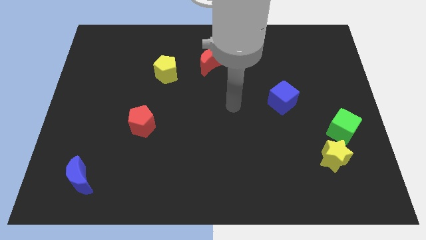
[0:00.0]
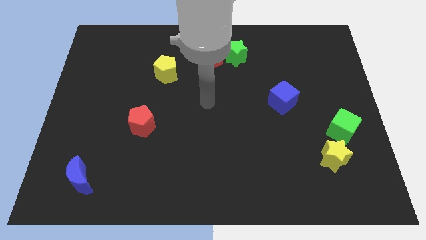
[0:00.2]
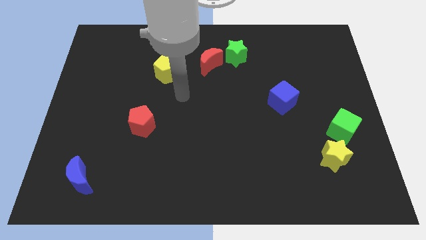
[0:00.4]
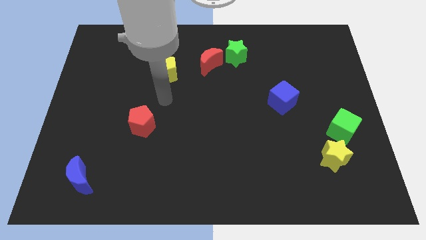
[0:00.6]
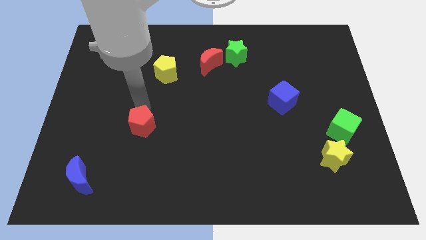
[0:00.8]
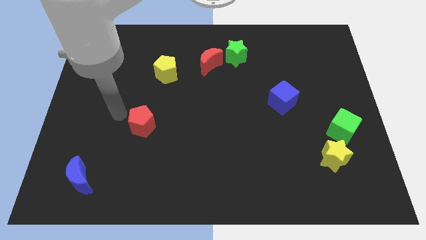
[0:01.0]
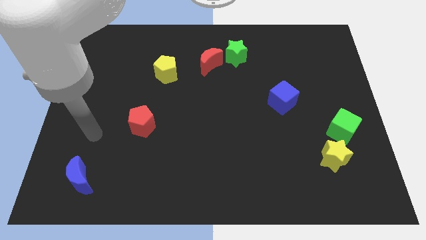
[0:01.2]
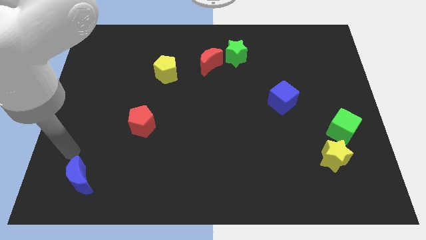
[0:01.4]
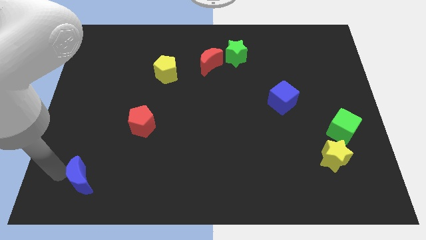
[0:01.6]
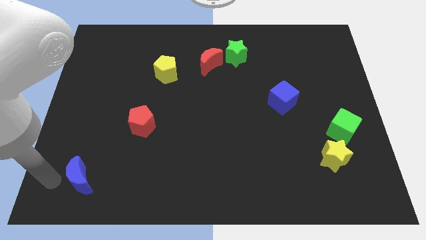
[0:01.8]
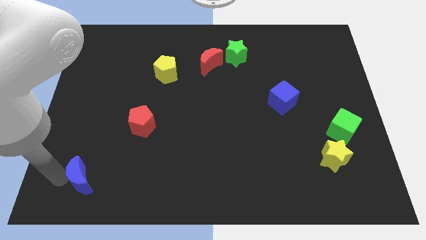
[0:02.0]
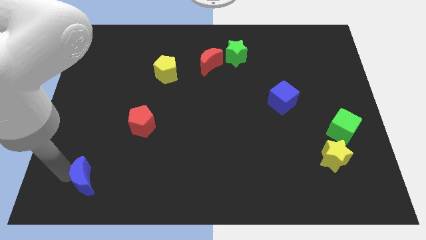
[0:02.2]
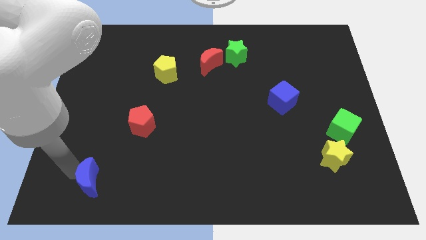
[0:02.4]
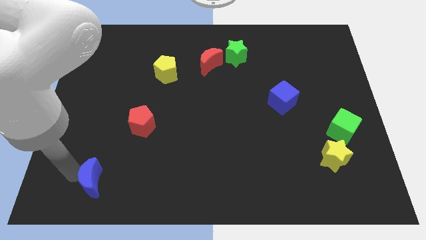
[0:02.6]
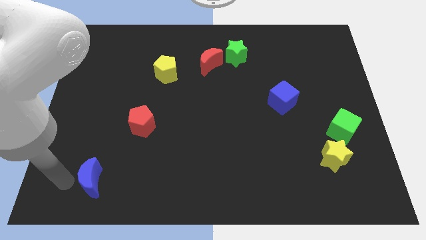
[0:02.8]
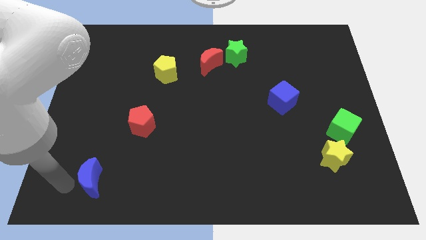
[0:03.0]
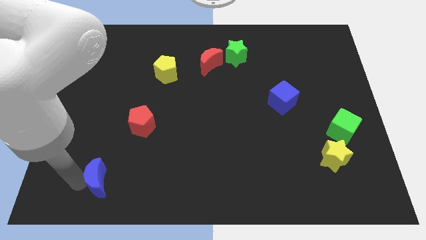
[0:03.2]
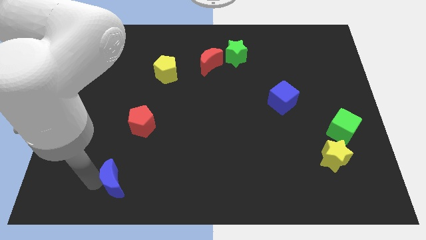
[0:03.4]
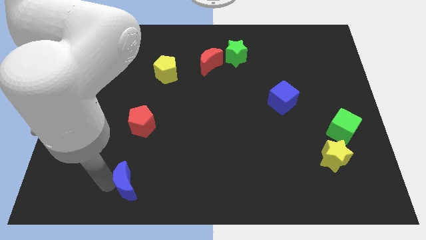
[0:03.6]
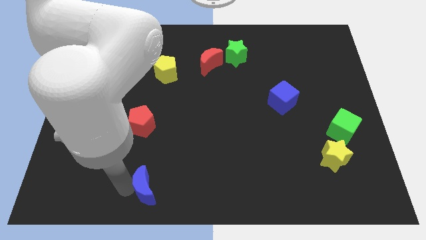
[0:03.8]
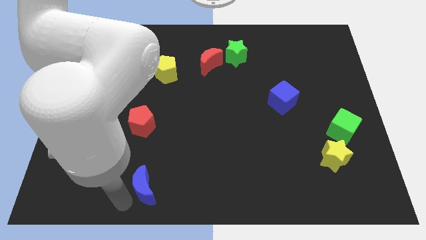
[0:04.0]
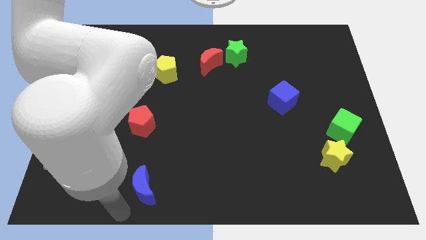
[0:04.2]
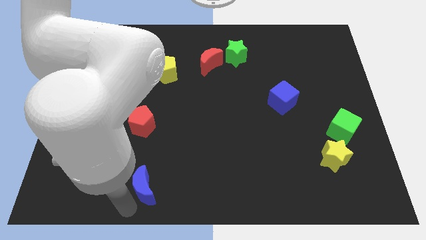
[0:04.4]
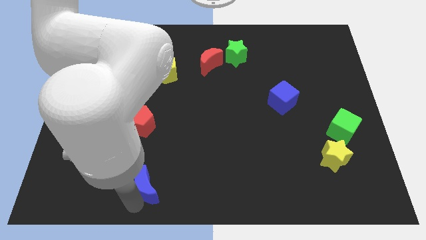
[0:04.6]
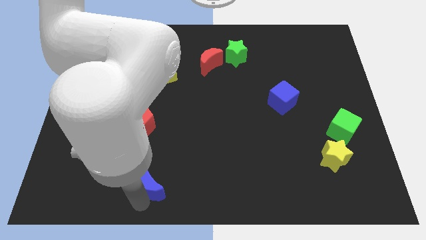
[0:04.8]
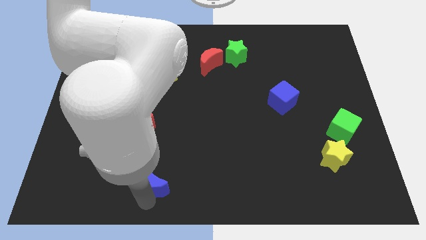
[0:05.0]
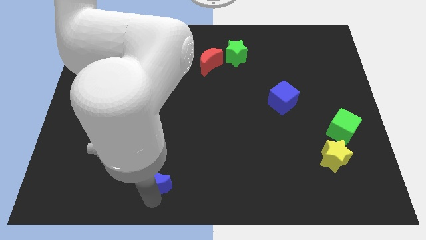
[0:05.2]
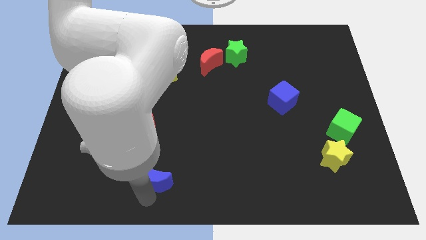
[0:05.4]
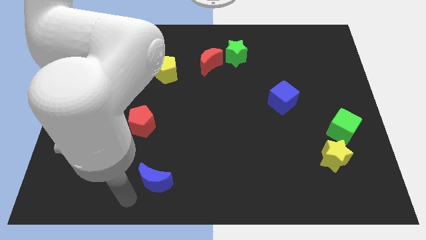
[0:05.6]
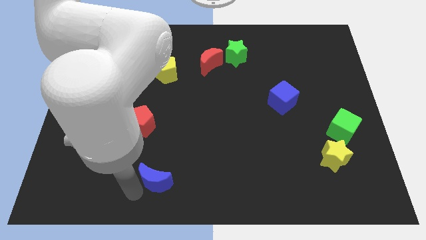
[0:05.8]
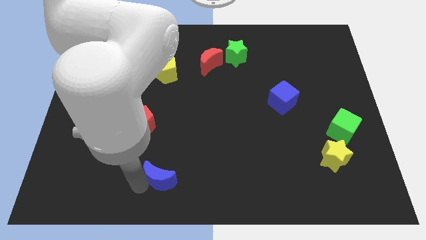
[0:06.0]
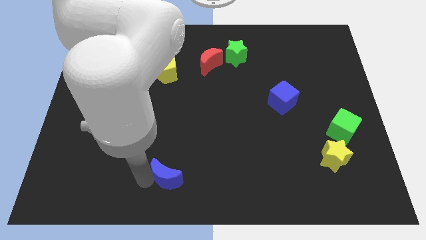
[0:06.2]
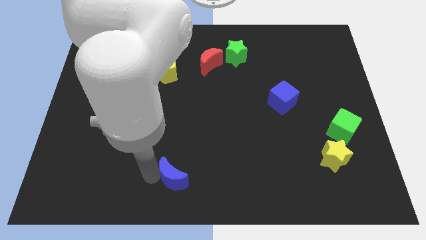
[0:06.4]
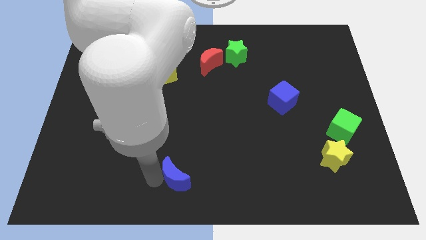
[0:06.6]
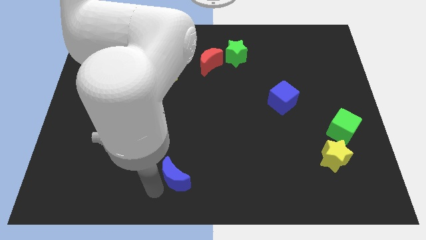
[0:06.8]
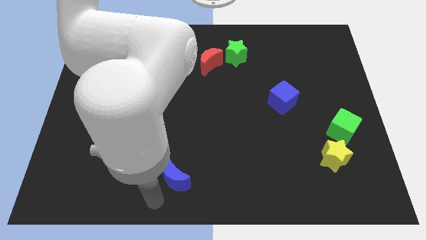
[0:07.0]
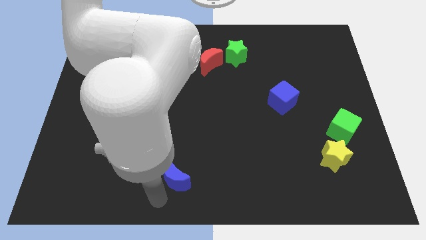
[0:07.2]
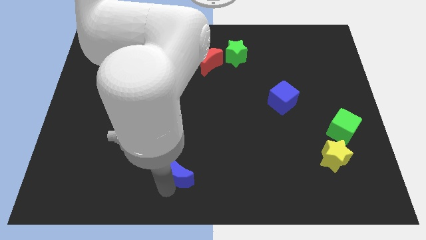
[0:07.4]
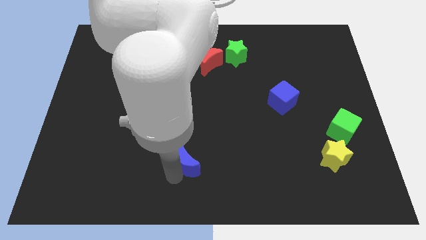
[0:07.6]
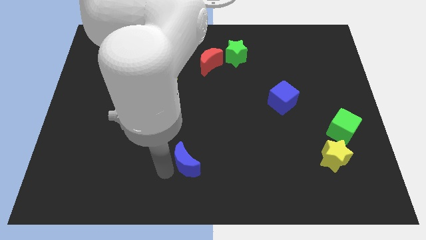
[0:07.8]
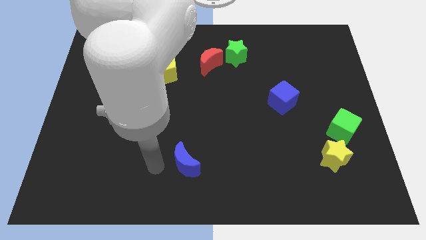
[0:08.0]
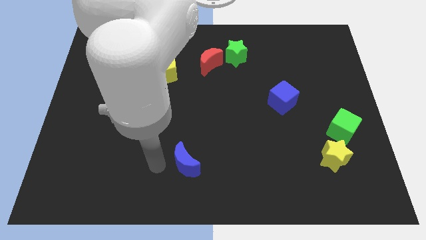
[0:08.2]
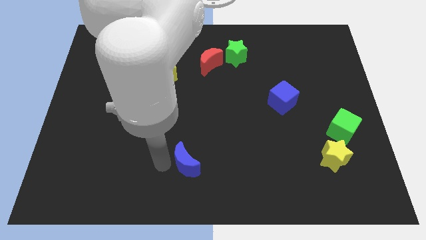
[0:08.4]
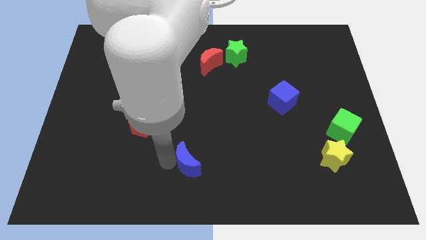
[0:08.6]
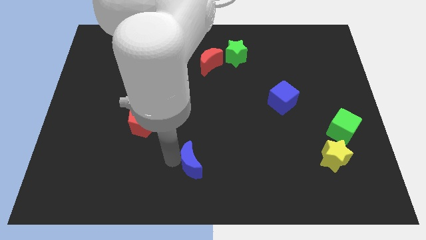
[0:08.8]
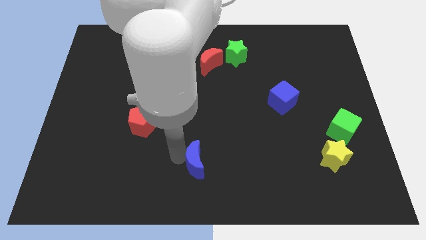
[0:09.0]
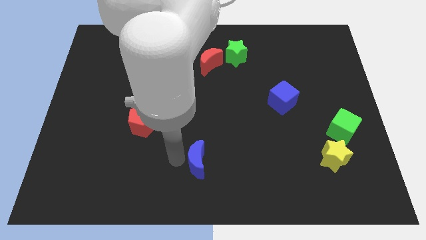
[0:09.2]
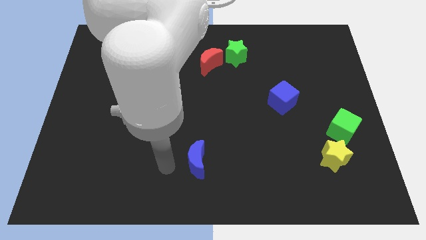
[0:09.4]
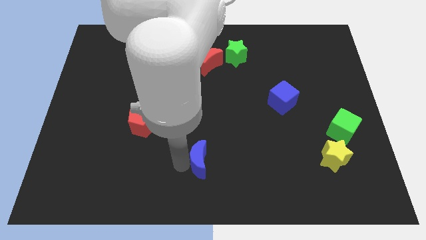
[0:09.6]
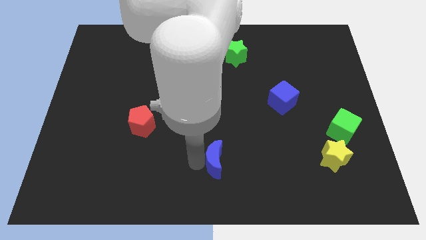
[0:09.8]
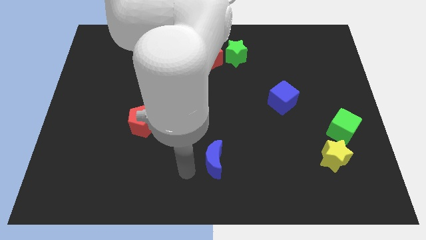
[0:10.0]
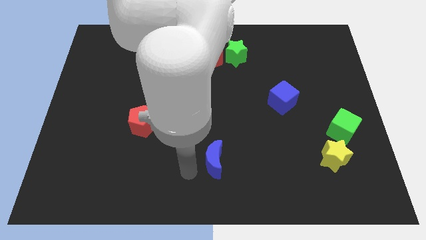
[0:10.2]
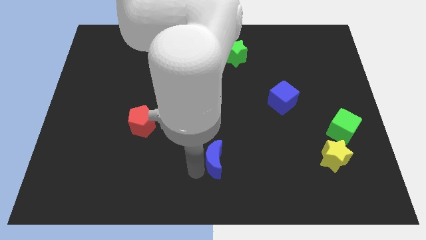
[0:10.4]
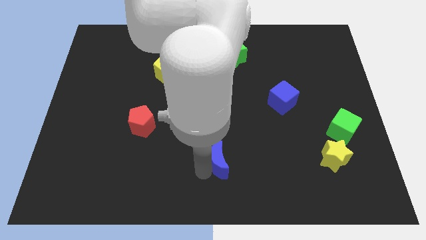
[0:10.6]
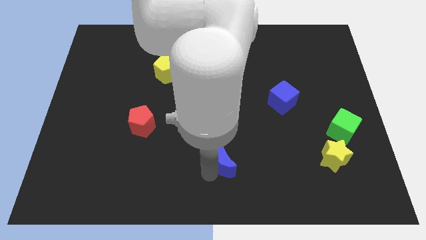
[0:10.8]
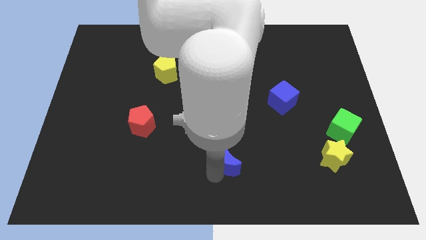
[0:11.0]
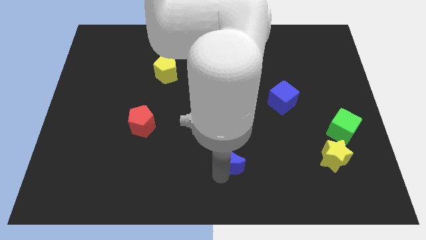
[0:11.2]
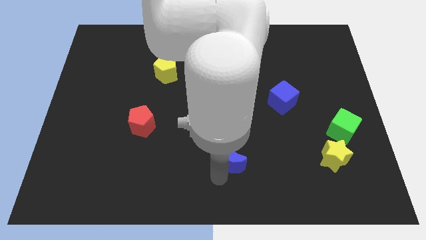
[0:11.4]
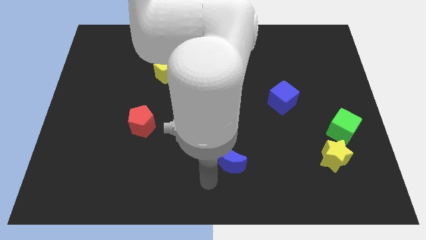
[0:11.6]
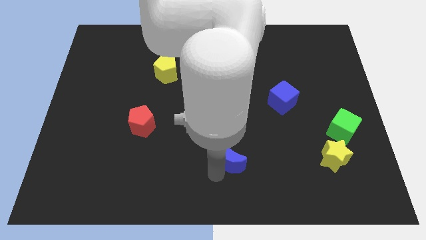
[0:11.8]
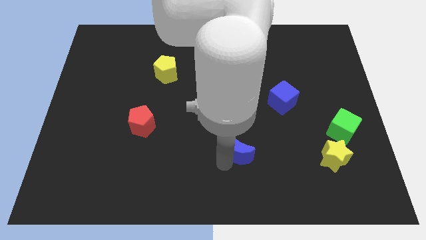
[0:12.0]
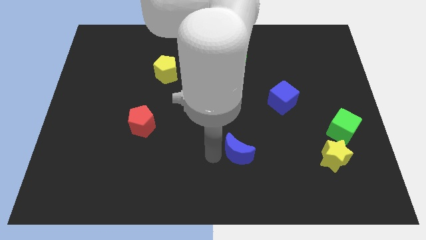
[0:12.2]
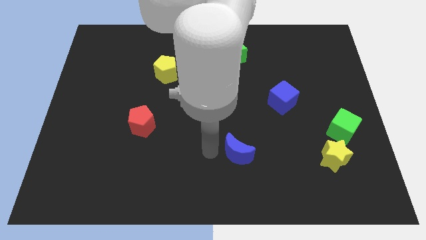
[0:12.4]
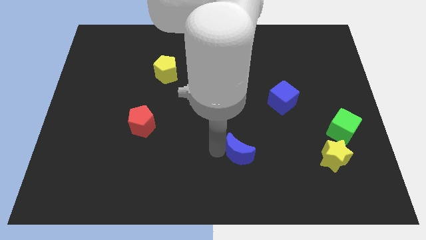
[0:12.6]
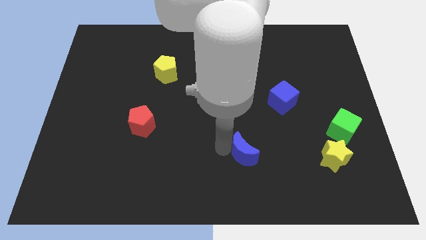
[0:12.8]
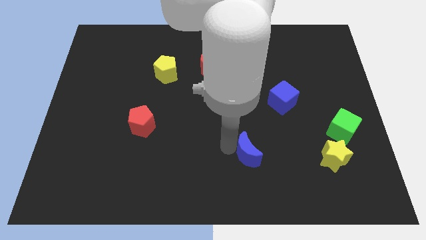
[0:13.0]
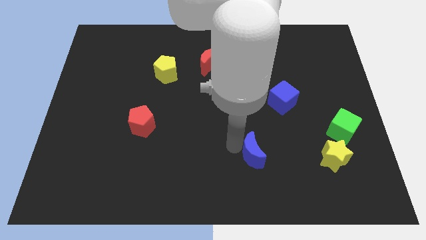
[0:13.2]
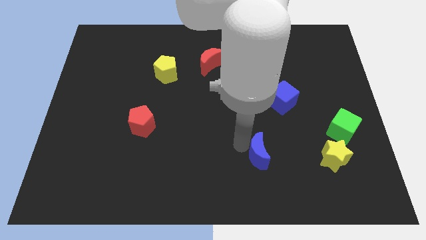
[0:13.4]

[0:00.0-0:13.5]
push the blue moon to the left of the yellow star

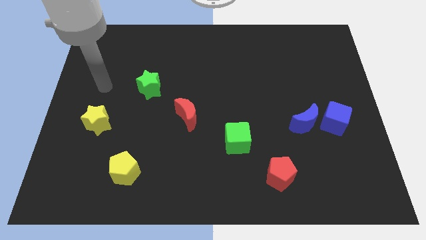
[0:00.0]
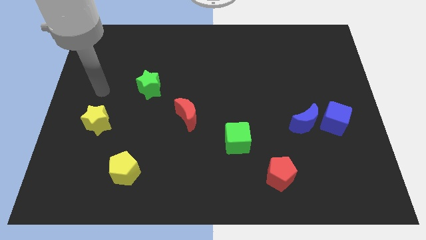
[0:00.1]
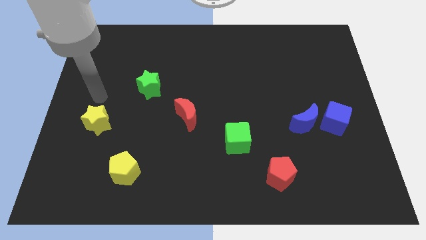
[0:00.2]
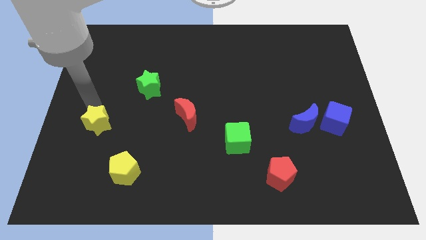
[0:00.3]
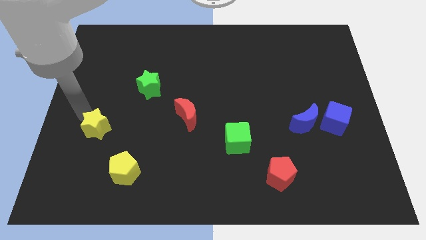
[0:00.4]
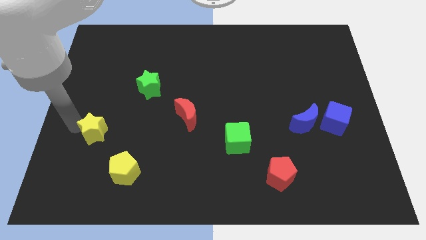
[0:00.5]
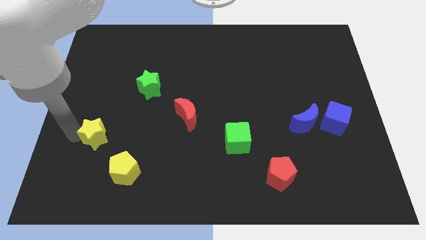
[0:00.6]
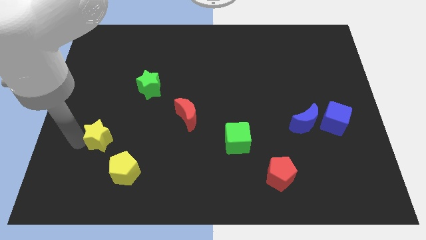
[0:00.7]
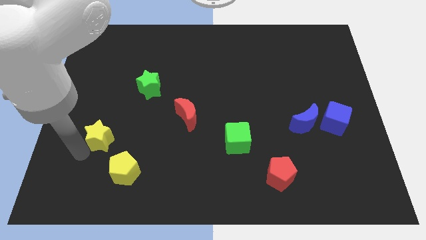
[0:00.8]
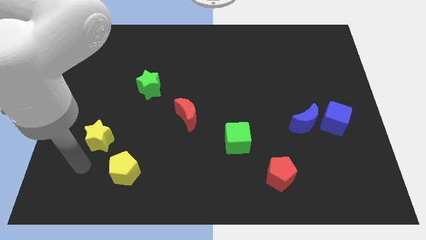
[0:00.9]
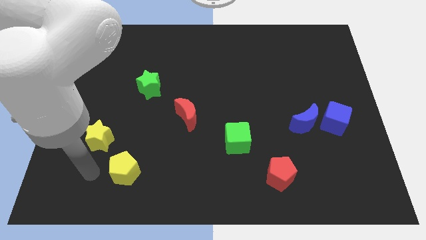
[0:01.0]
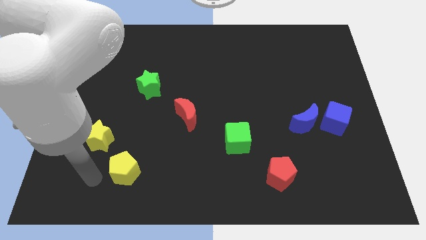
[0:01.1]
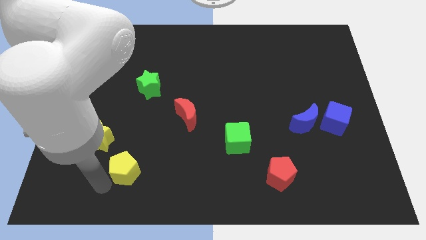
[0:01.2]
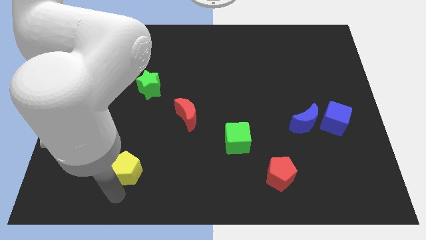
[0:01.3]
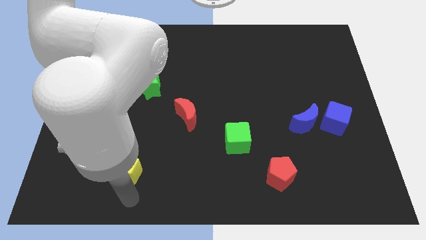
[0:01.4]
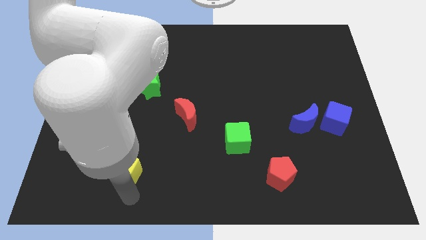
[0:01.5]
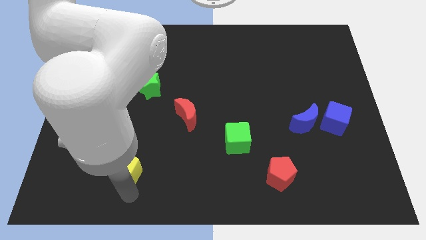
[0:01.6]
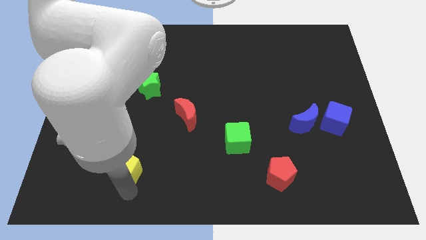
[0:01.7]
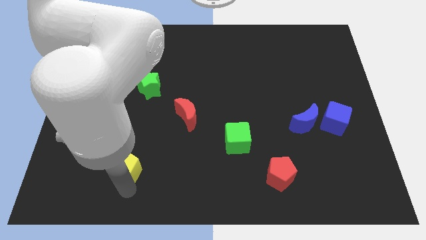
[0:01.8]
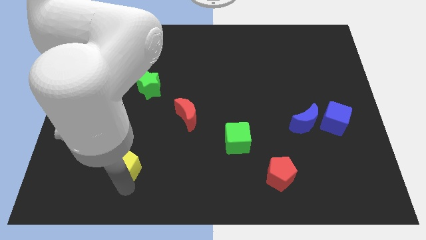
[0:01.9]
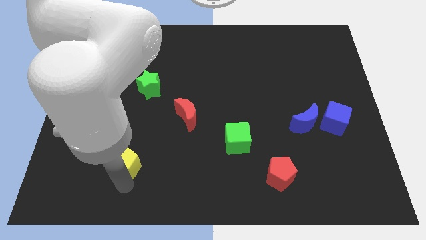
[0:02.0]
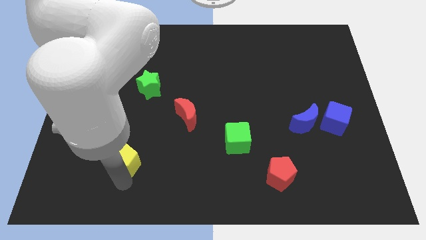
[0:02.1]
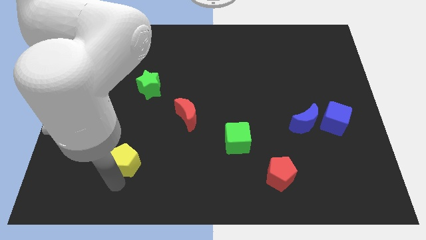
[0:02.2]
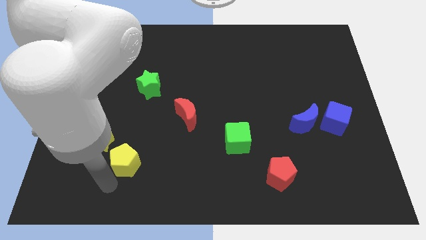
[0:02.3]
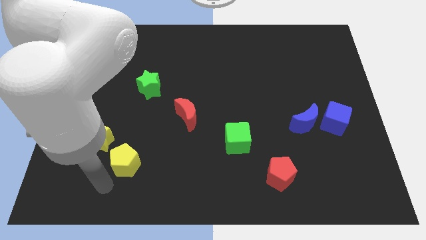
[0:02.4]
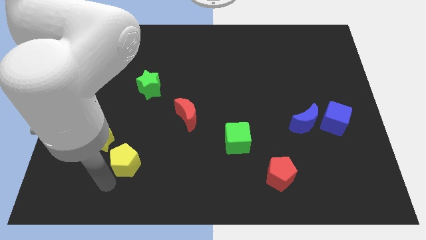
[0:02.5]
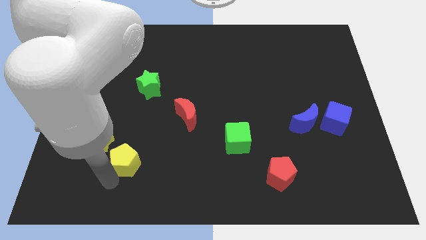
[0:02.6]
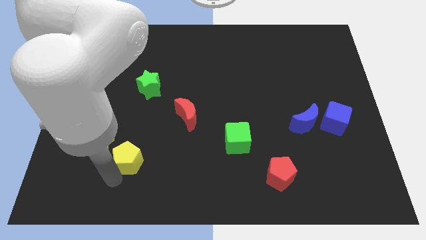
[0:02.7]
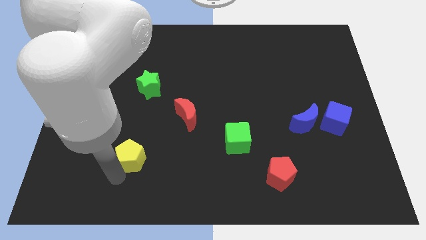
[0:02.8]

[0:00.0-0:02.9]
push the yellow pentagon right of the yellow star
